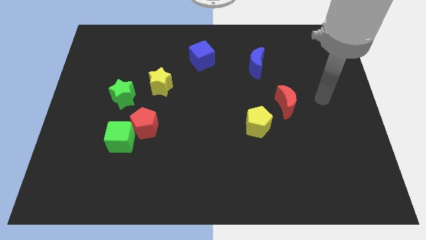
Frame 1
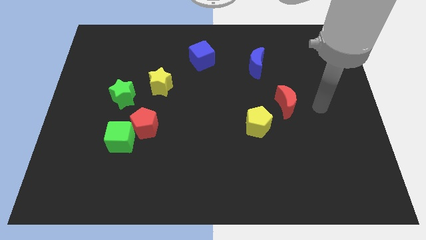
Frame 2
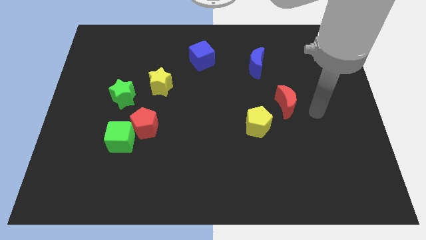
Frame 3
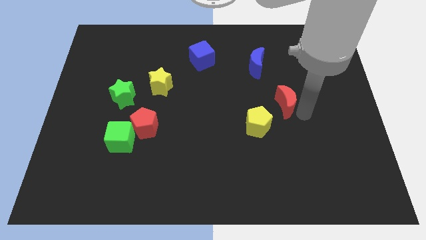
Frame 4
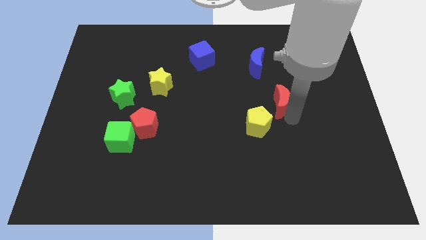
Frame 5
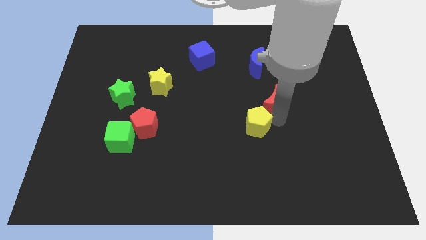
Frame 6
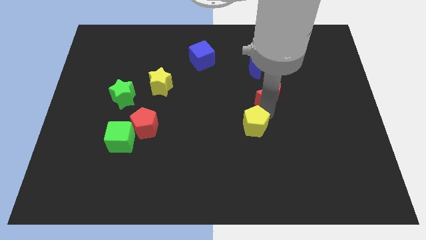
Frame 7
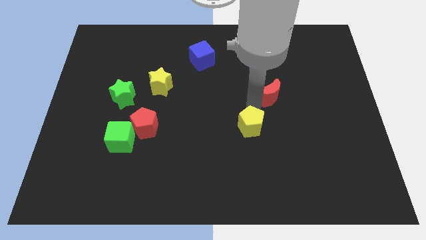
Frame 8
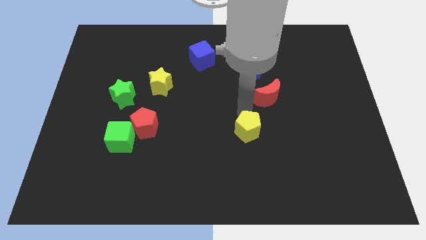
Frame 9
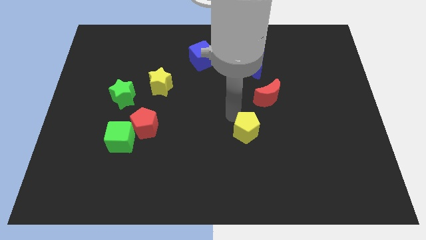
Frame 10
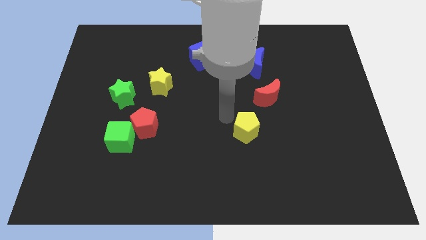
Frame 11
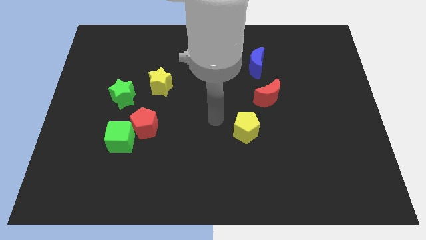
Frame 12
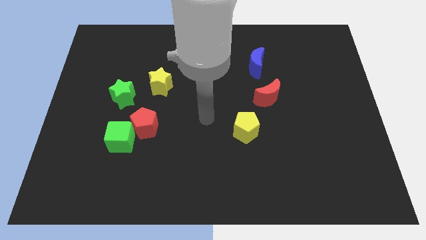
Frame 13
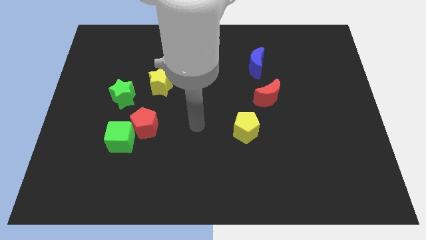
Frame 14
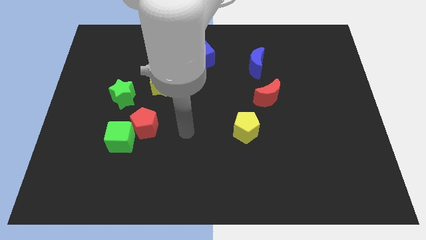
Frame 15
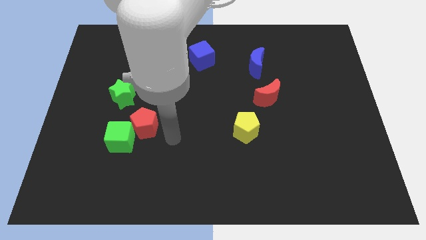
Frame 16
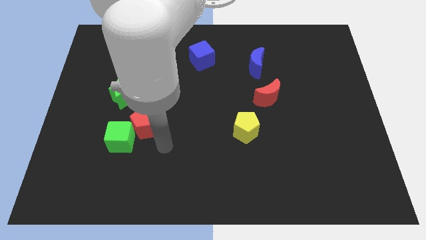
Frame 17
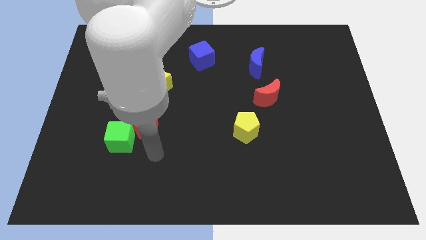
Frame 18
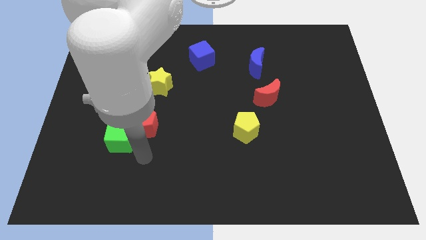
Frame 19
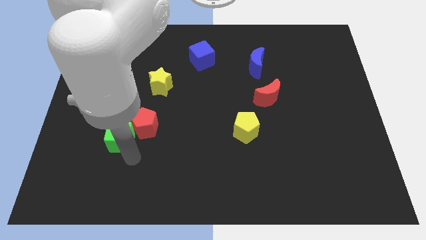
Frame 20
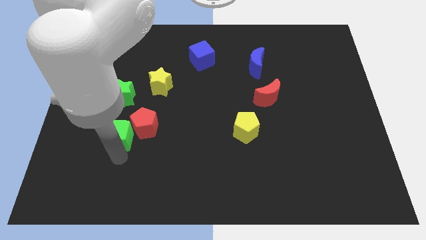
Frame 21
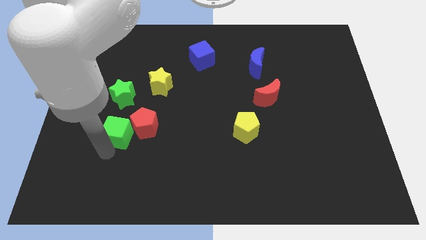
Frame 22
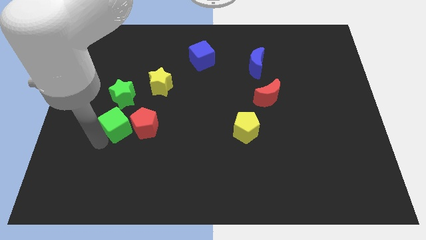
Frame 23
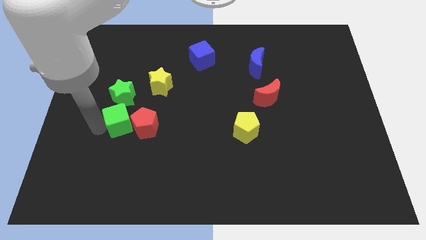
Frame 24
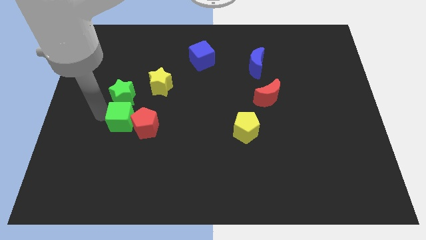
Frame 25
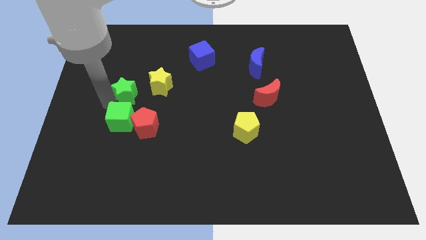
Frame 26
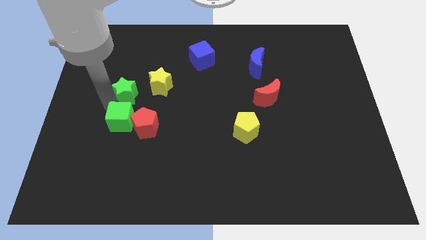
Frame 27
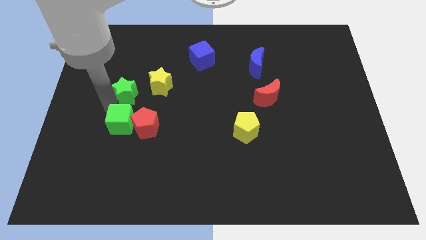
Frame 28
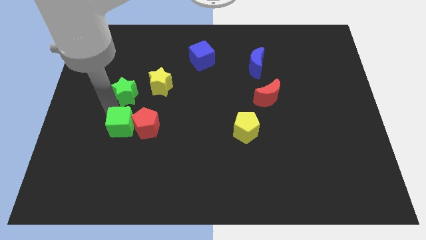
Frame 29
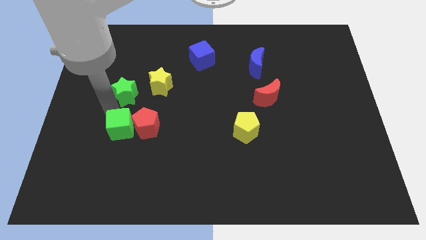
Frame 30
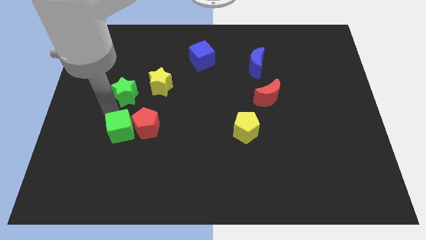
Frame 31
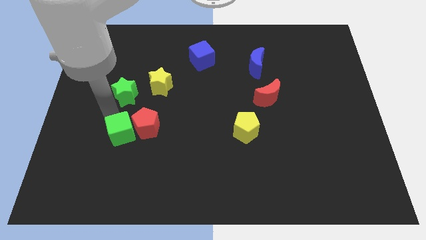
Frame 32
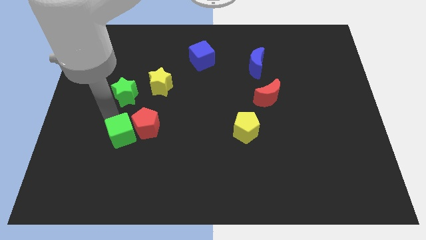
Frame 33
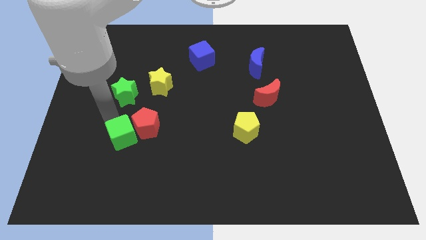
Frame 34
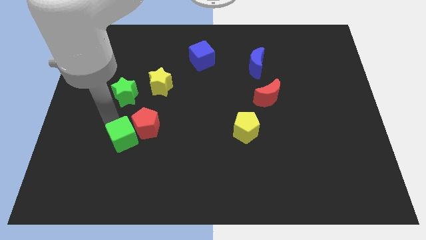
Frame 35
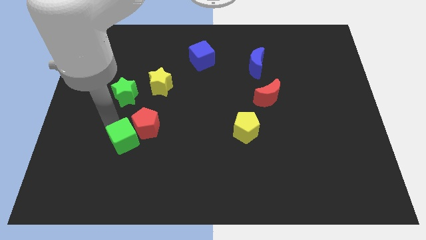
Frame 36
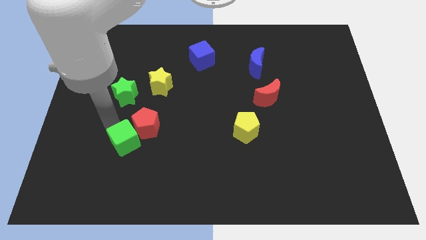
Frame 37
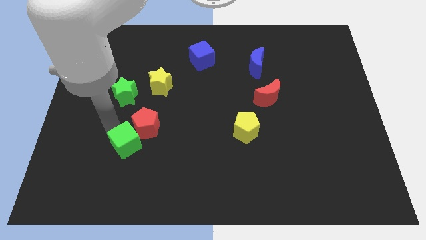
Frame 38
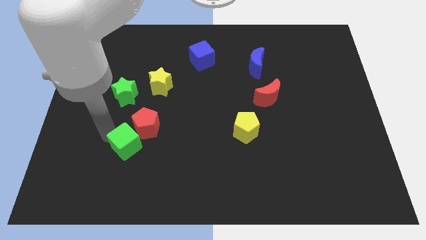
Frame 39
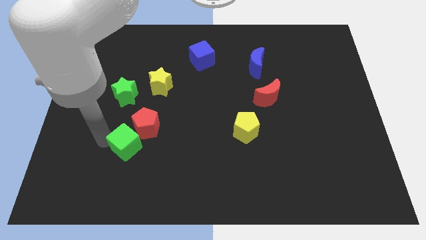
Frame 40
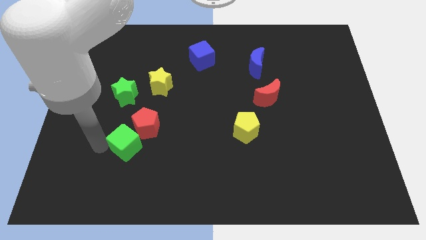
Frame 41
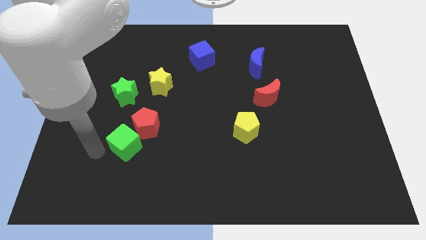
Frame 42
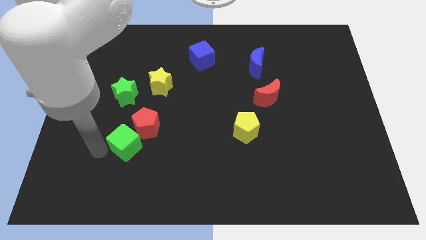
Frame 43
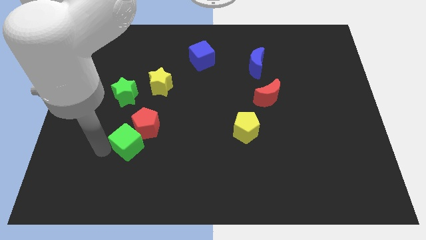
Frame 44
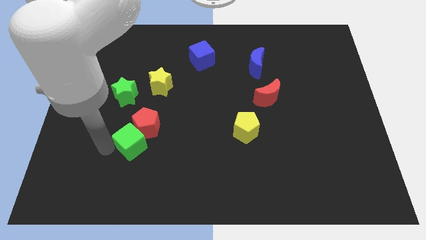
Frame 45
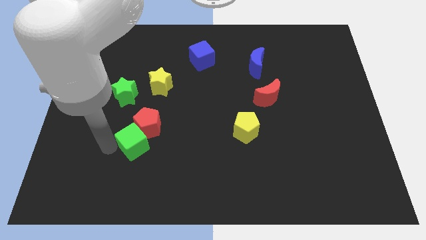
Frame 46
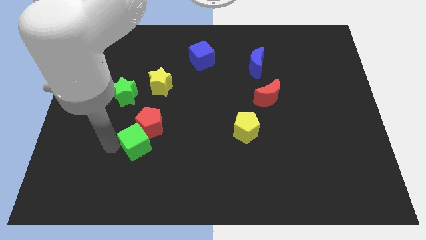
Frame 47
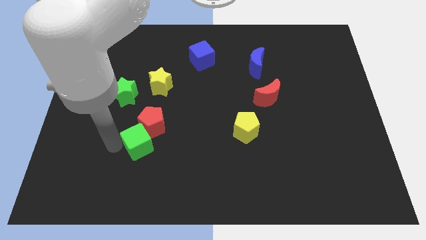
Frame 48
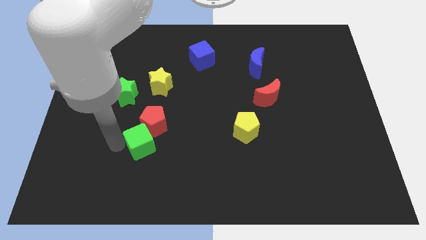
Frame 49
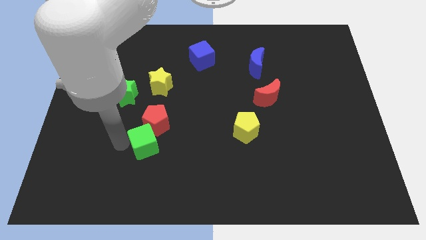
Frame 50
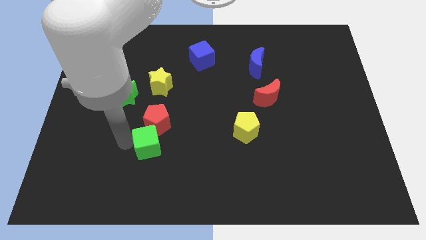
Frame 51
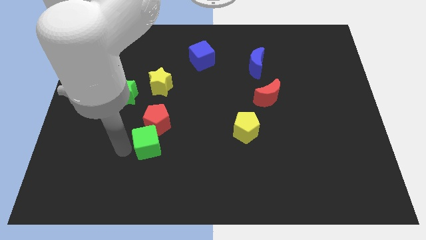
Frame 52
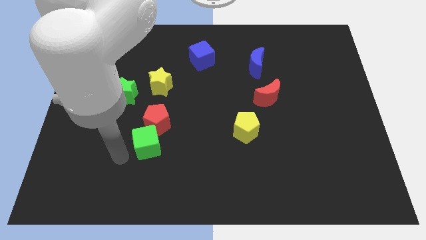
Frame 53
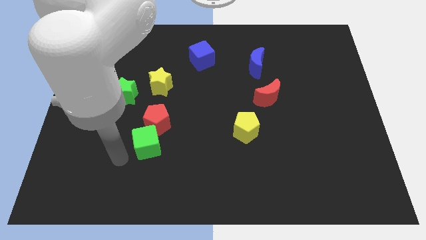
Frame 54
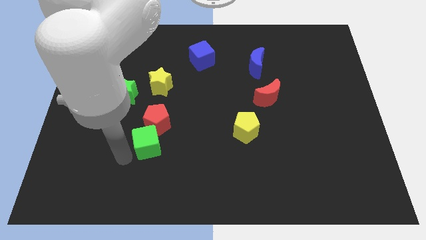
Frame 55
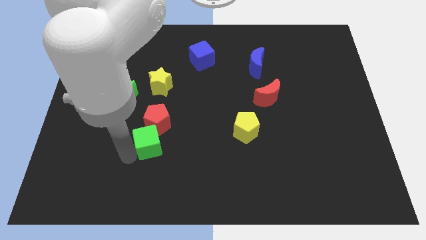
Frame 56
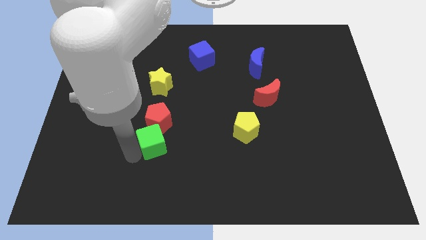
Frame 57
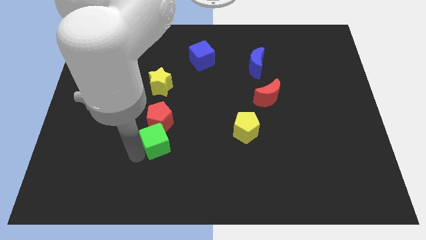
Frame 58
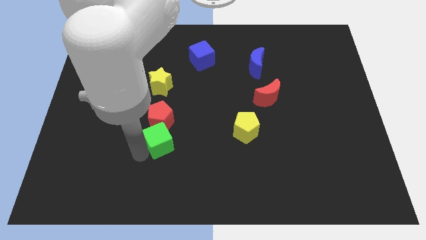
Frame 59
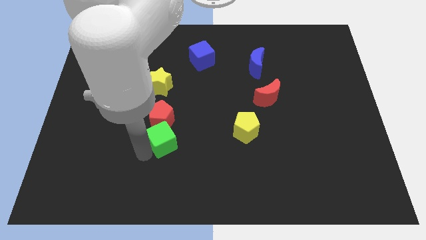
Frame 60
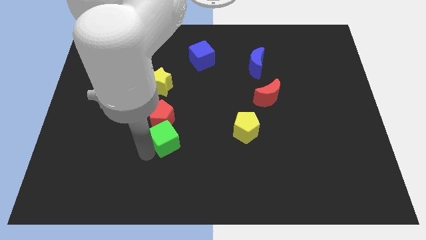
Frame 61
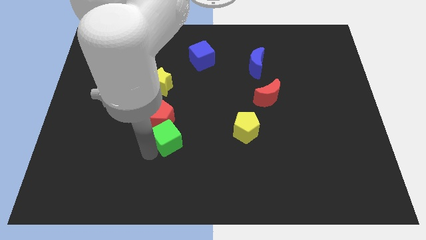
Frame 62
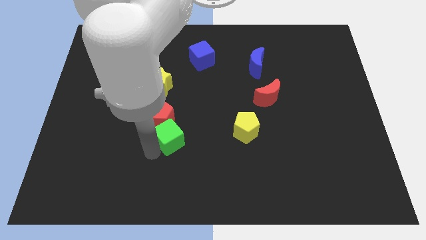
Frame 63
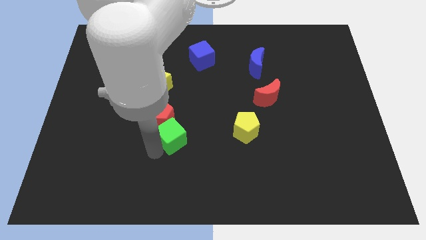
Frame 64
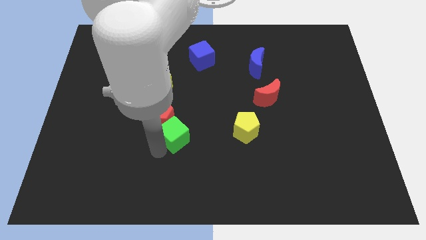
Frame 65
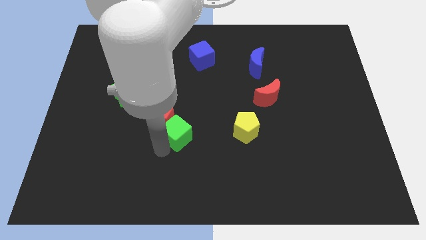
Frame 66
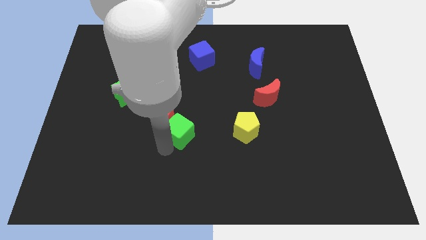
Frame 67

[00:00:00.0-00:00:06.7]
push the green cube to the center
